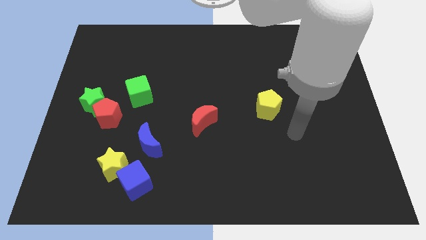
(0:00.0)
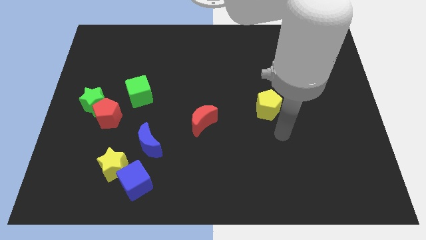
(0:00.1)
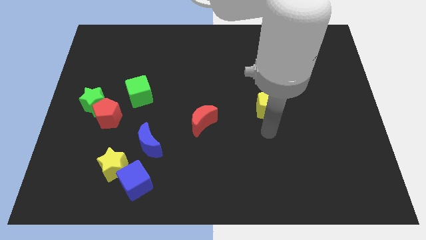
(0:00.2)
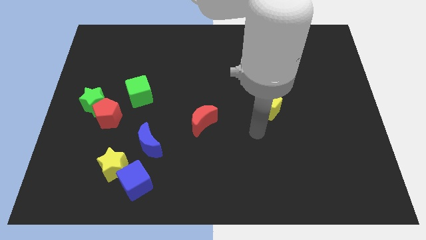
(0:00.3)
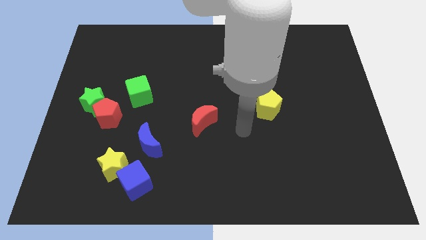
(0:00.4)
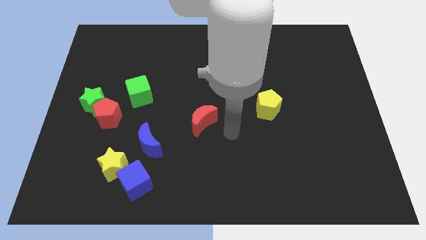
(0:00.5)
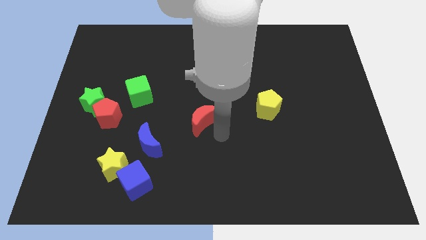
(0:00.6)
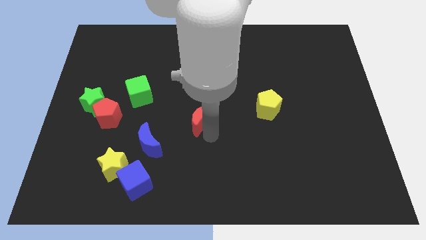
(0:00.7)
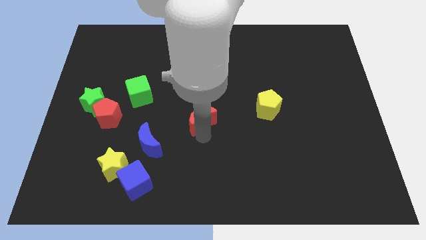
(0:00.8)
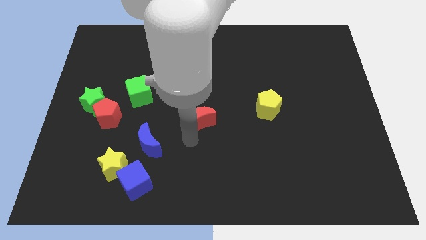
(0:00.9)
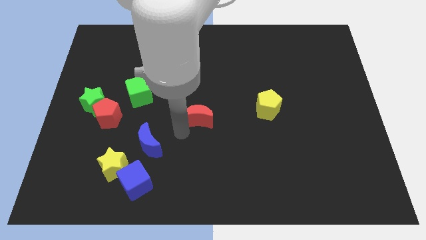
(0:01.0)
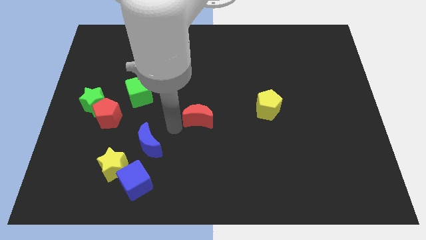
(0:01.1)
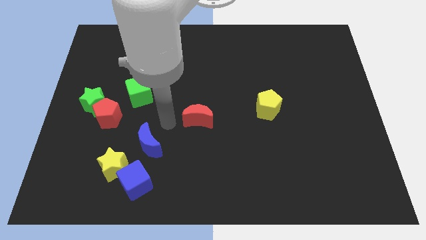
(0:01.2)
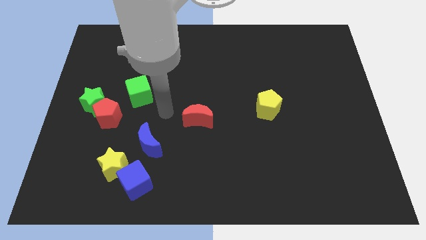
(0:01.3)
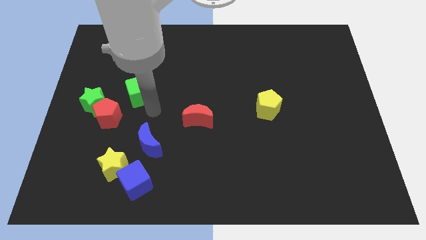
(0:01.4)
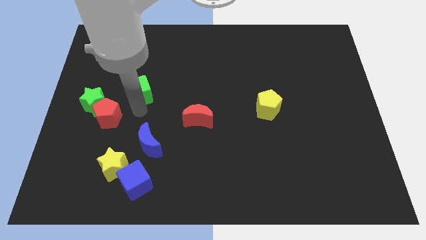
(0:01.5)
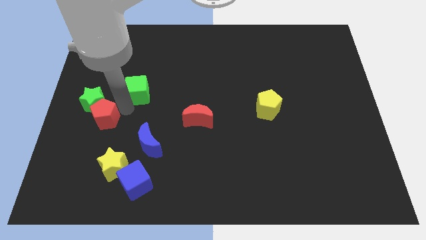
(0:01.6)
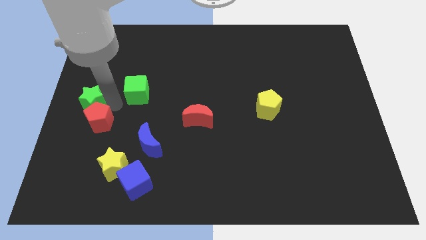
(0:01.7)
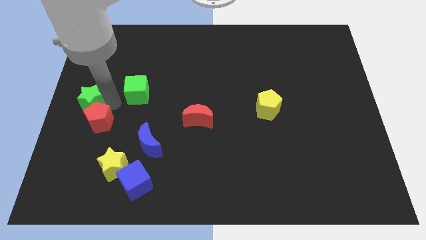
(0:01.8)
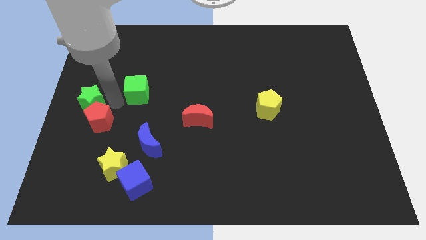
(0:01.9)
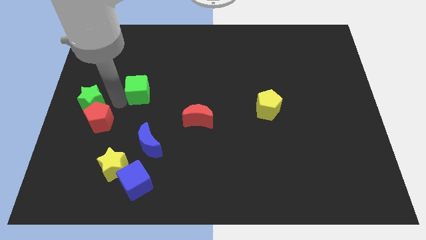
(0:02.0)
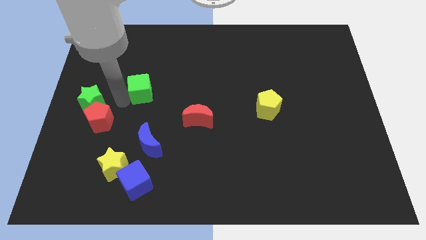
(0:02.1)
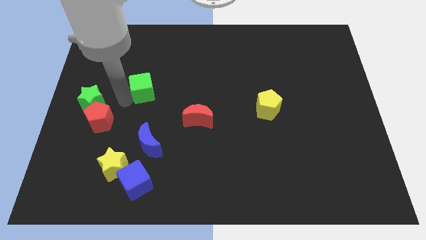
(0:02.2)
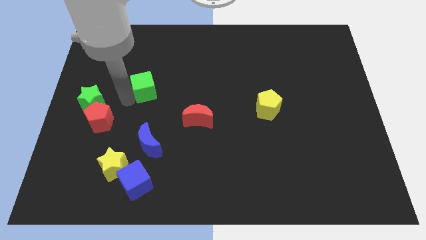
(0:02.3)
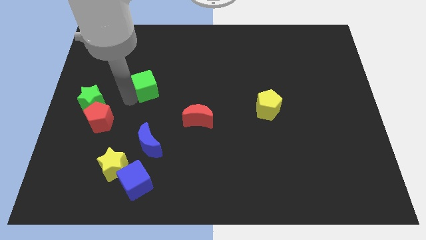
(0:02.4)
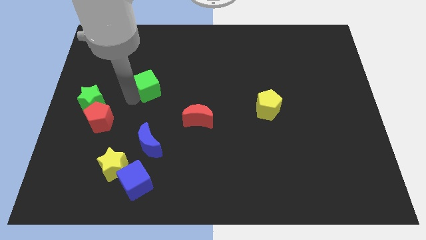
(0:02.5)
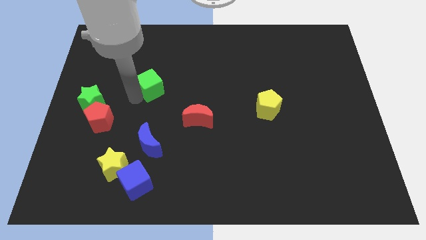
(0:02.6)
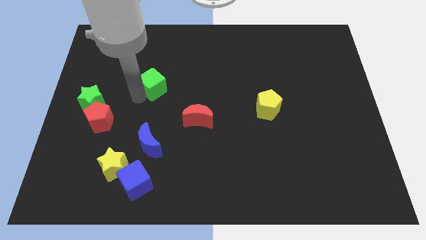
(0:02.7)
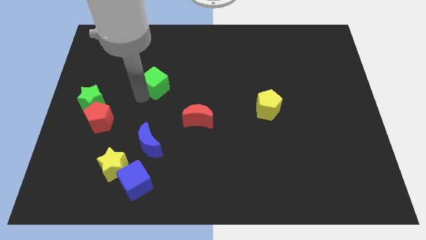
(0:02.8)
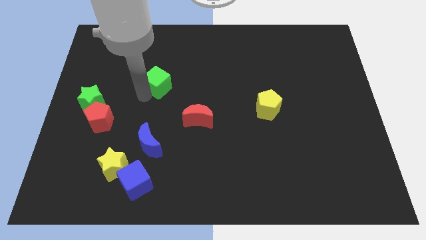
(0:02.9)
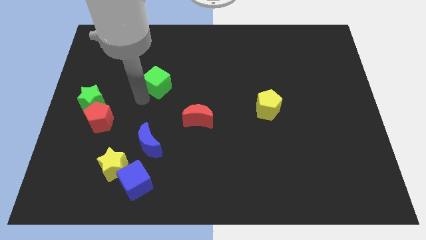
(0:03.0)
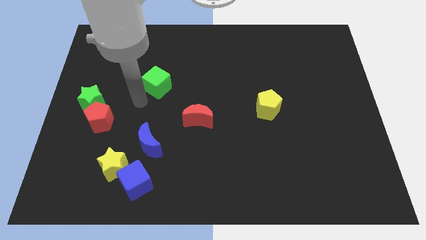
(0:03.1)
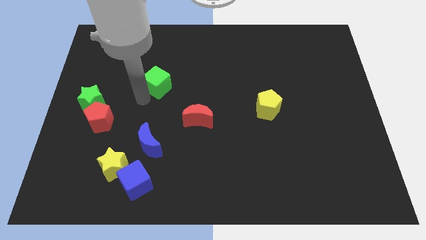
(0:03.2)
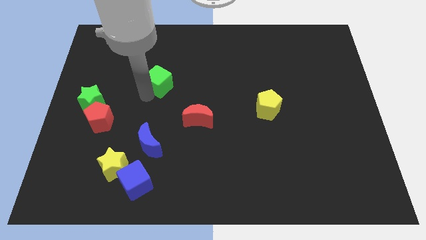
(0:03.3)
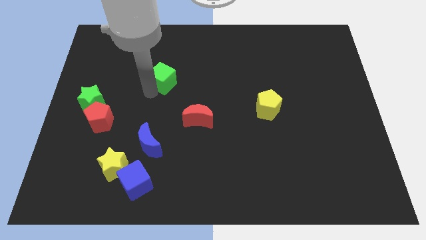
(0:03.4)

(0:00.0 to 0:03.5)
push the green cube diagonally up and right a little

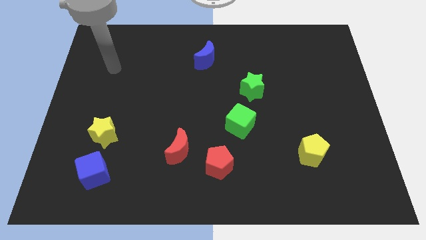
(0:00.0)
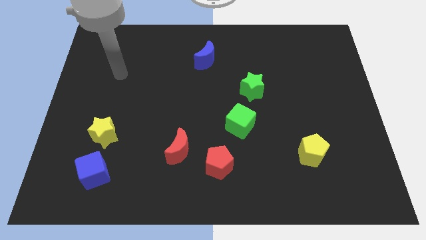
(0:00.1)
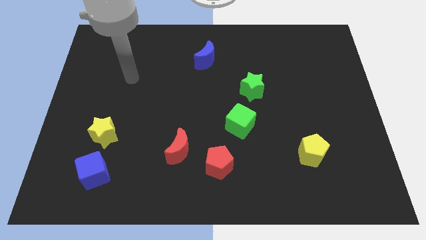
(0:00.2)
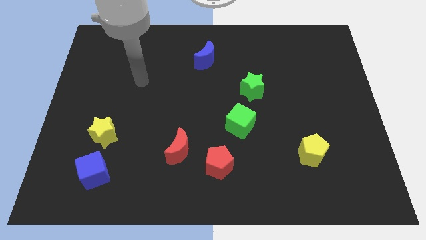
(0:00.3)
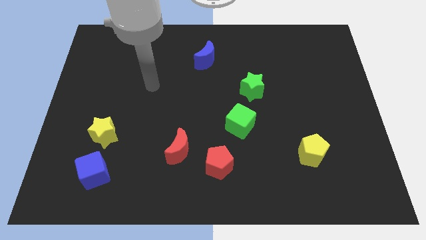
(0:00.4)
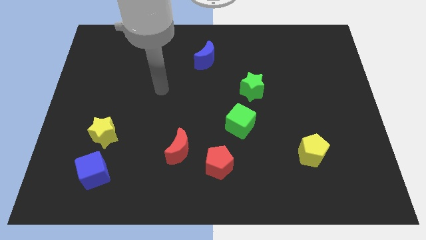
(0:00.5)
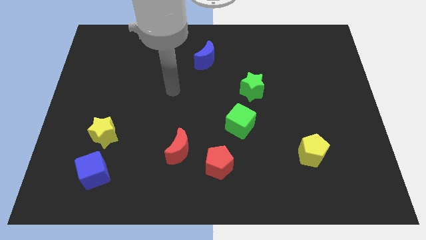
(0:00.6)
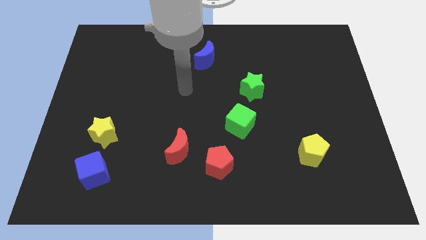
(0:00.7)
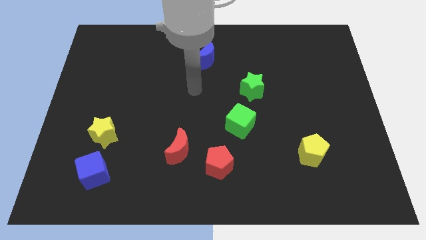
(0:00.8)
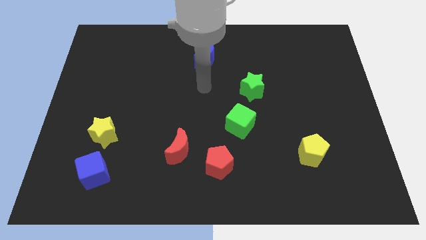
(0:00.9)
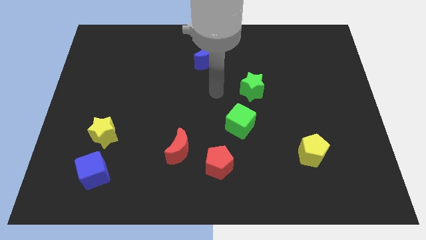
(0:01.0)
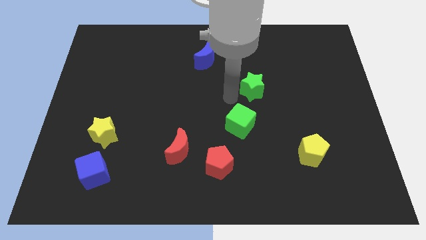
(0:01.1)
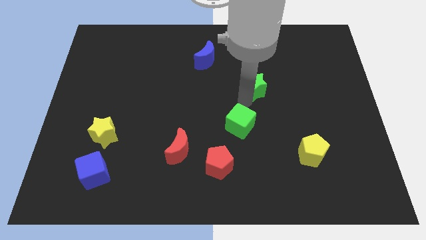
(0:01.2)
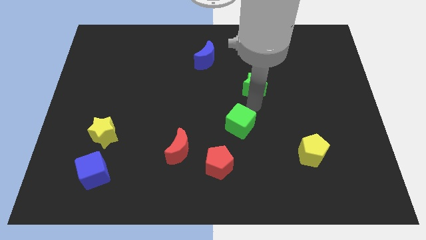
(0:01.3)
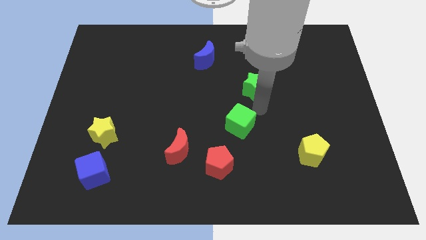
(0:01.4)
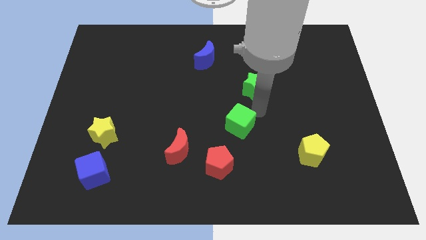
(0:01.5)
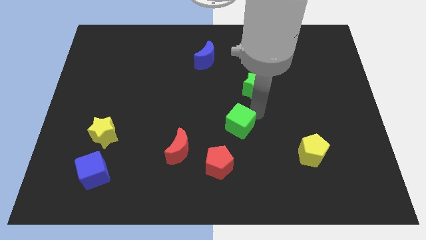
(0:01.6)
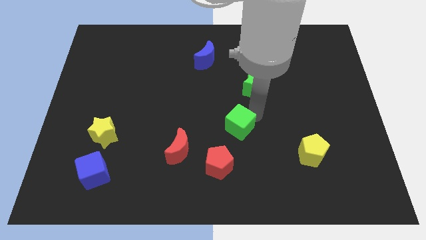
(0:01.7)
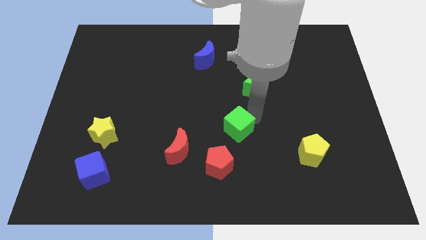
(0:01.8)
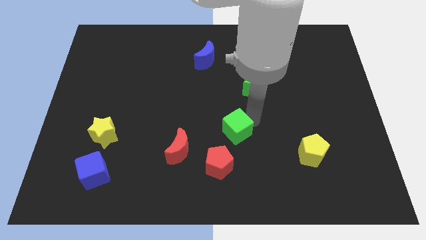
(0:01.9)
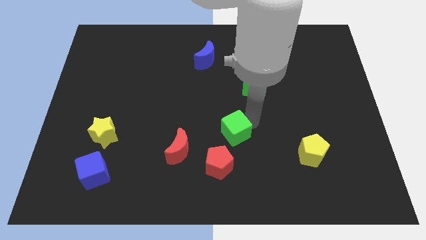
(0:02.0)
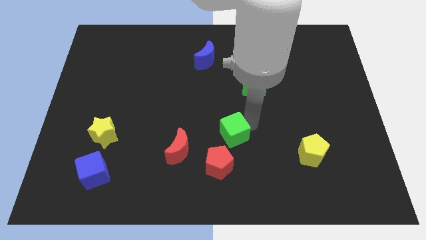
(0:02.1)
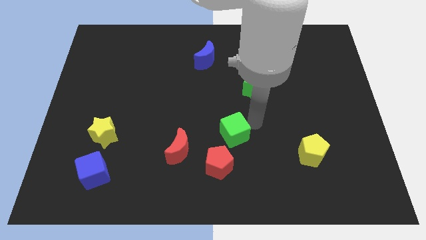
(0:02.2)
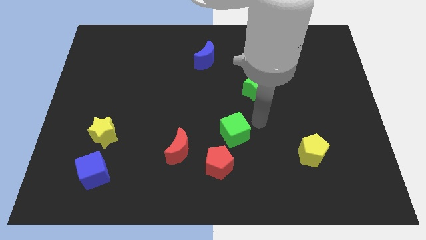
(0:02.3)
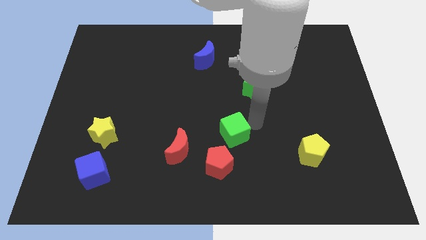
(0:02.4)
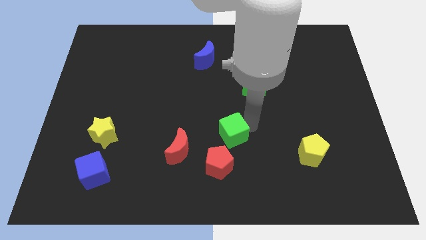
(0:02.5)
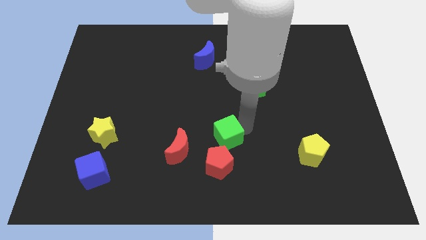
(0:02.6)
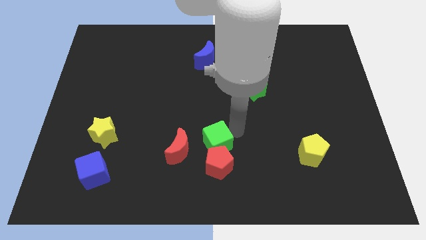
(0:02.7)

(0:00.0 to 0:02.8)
move the green cube slightly down and then left

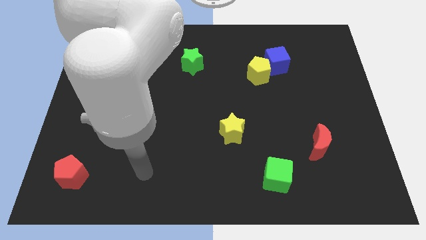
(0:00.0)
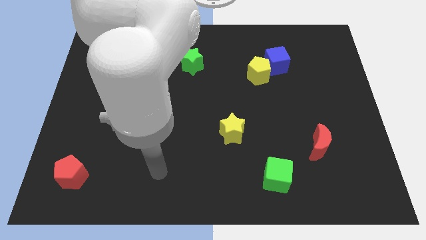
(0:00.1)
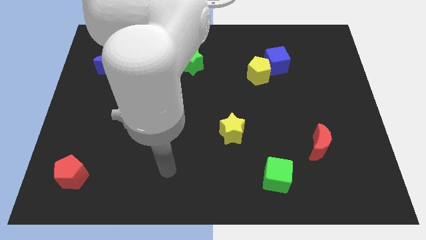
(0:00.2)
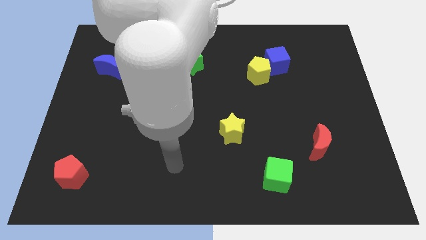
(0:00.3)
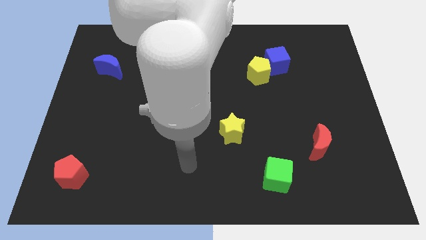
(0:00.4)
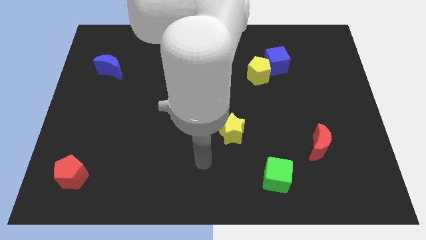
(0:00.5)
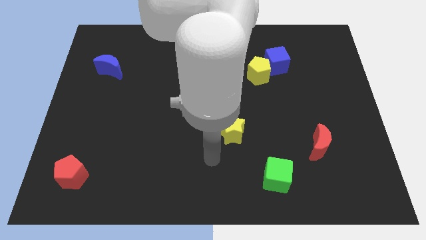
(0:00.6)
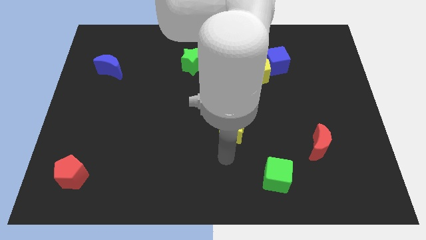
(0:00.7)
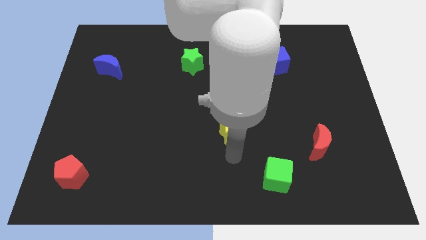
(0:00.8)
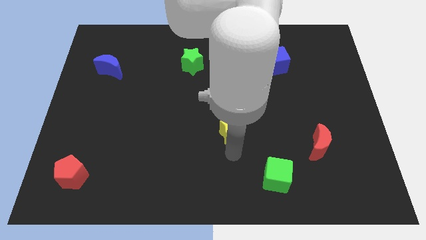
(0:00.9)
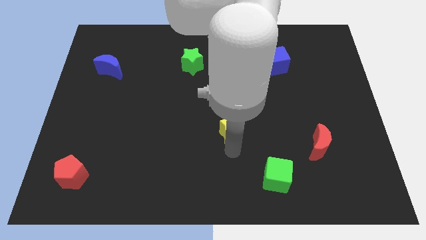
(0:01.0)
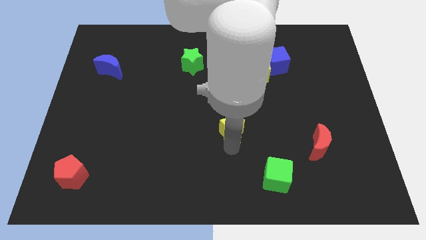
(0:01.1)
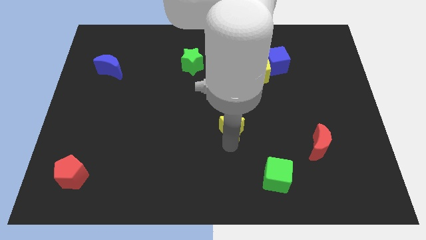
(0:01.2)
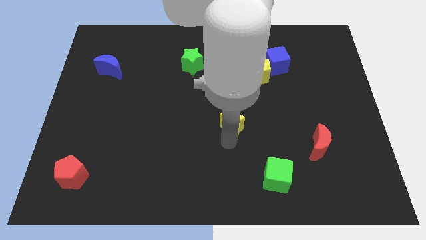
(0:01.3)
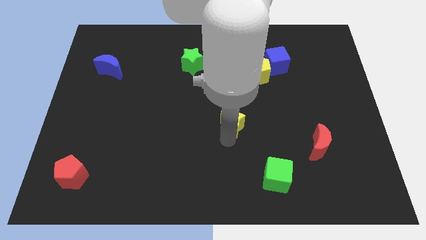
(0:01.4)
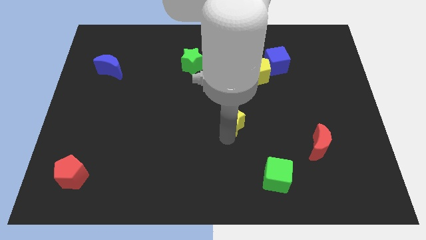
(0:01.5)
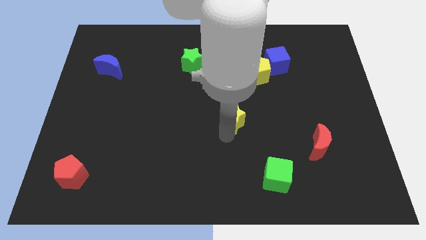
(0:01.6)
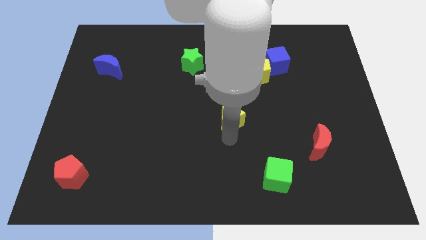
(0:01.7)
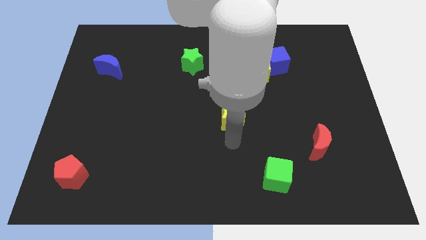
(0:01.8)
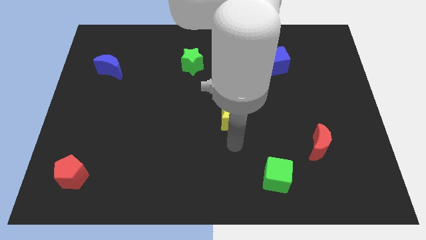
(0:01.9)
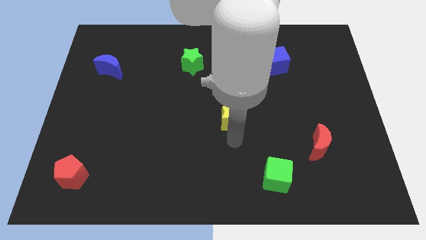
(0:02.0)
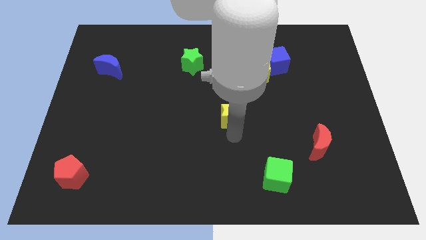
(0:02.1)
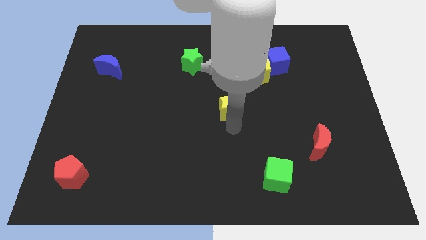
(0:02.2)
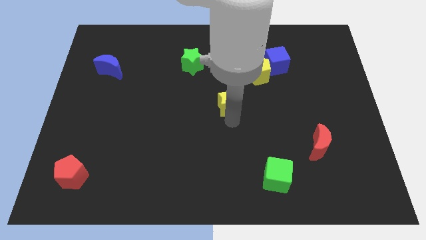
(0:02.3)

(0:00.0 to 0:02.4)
slightly move the yellow star up
